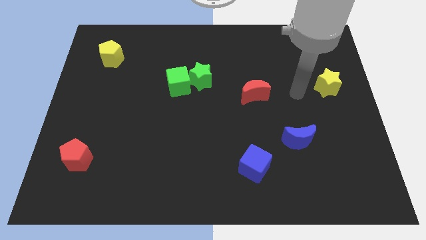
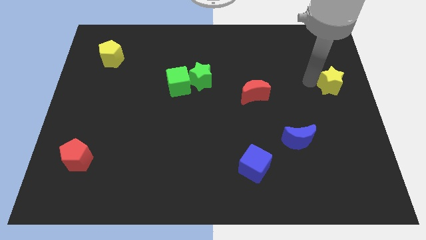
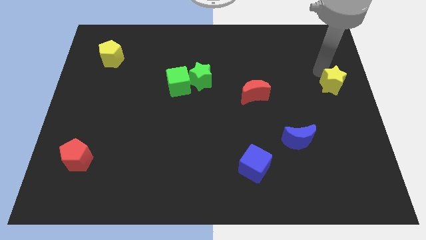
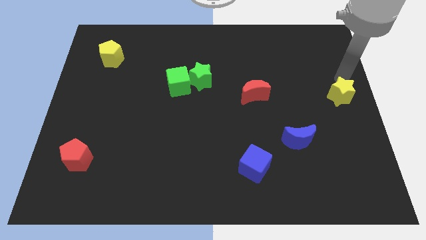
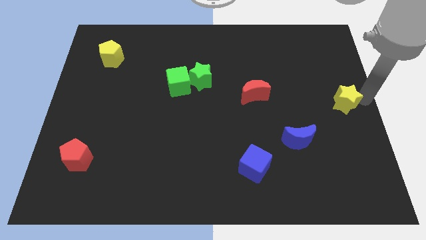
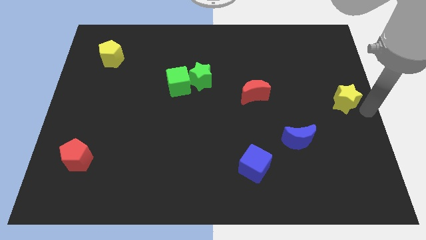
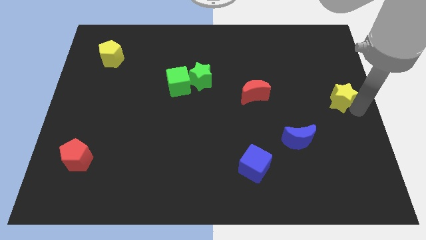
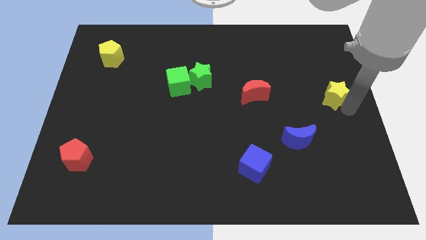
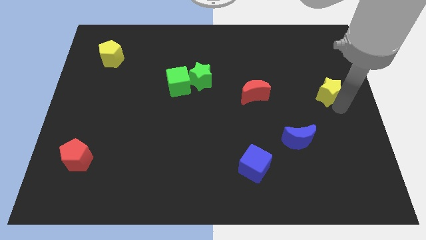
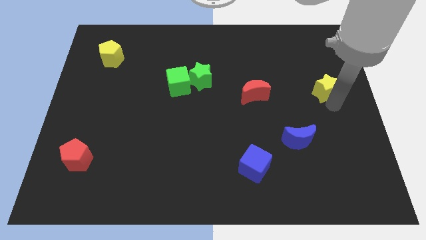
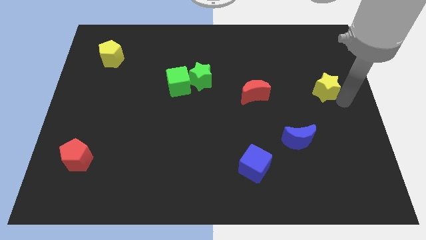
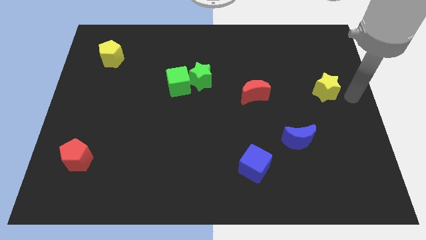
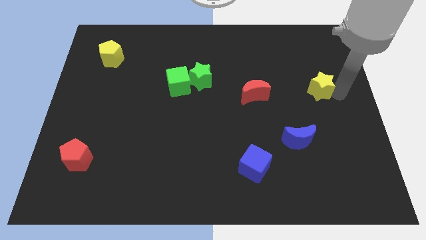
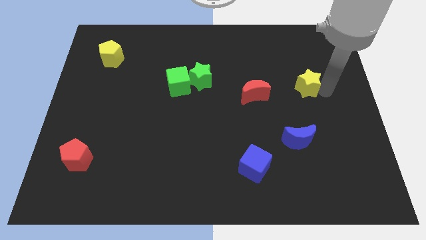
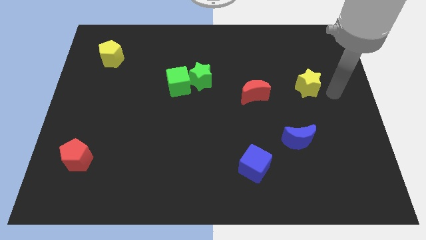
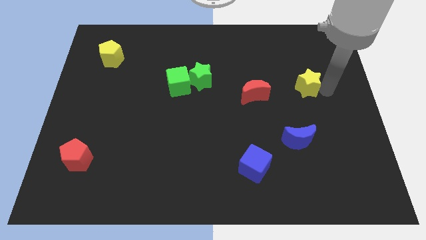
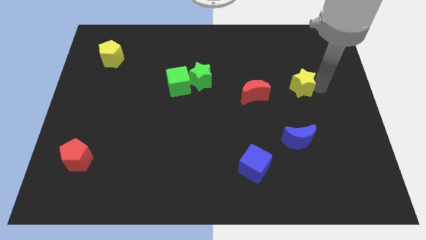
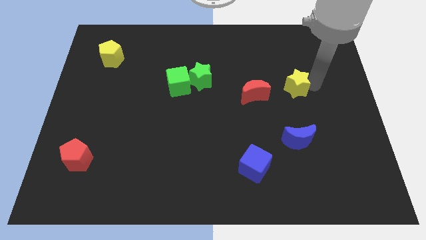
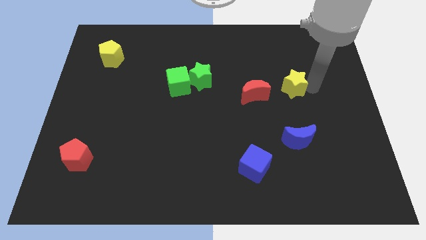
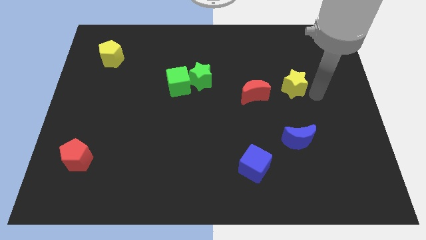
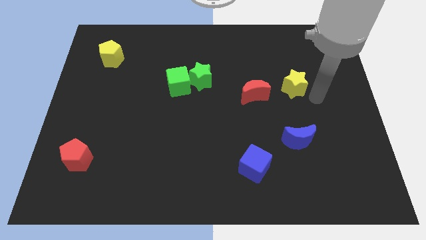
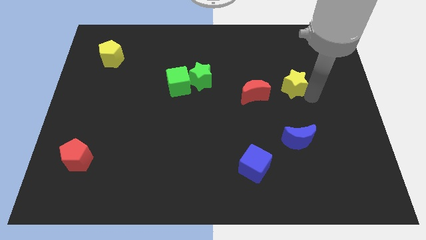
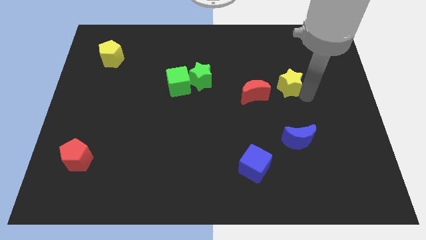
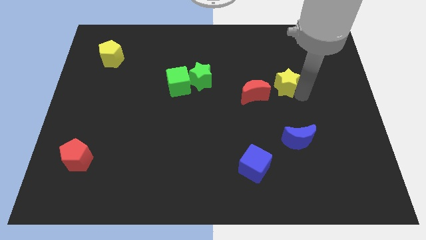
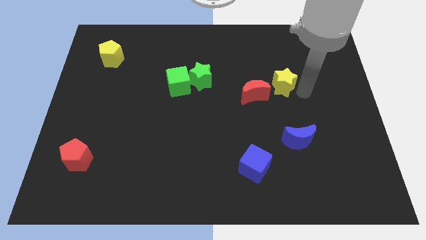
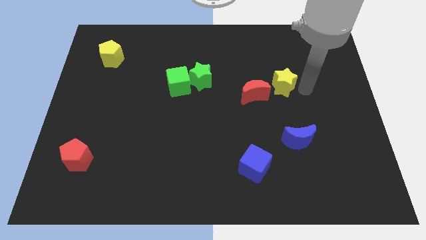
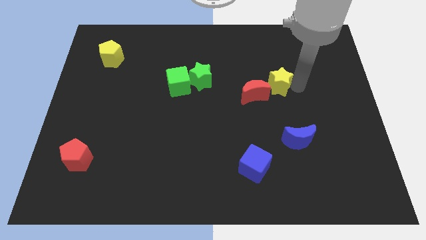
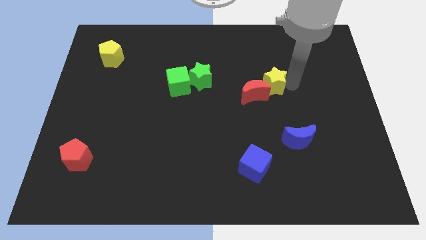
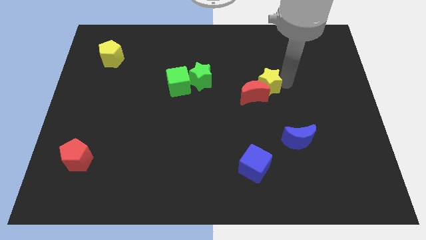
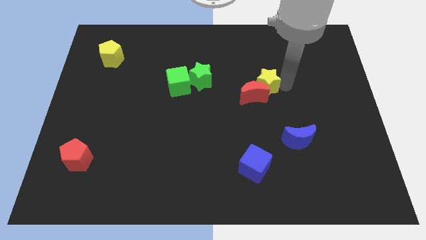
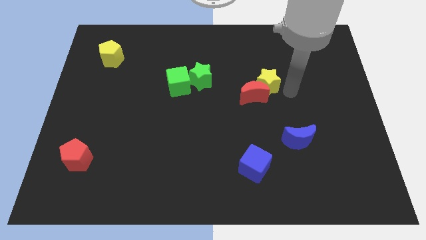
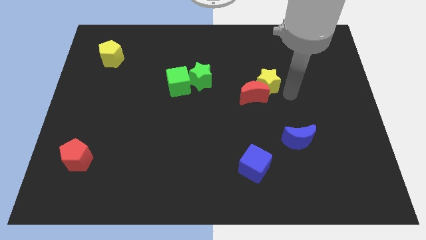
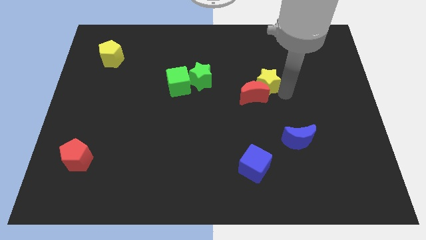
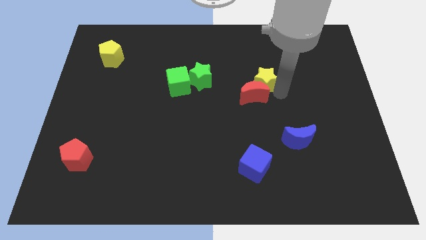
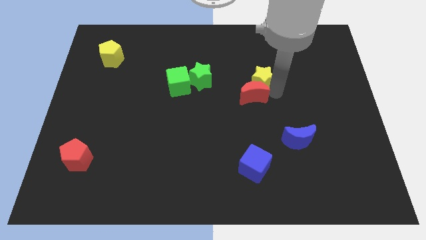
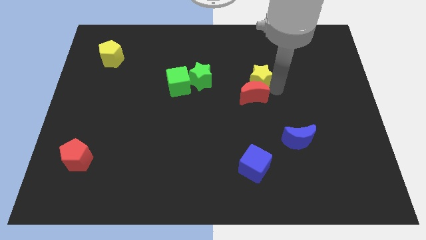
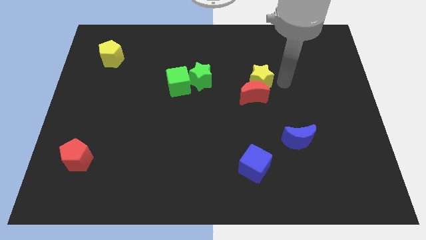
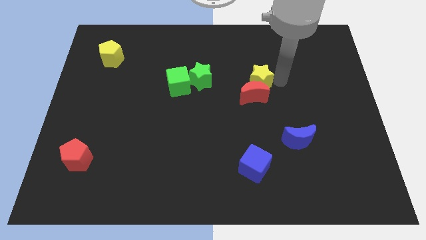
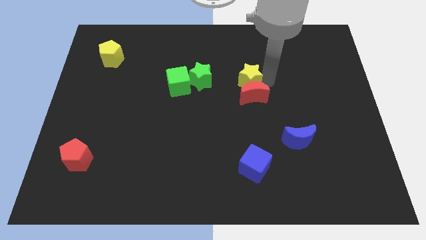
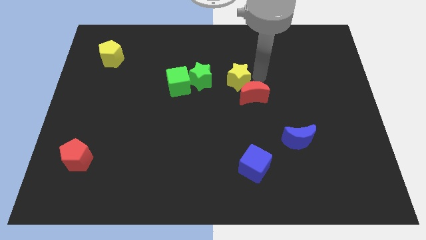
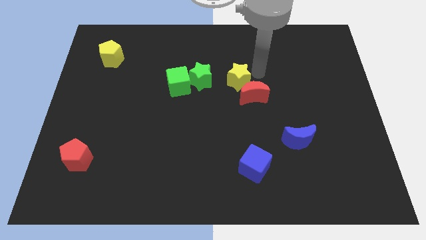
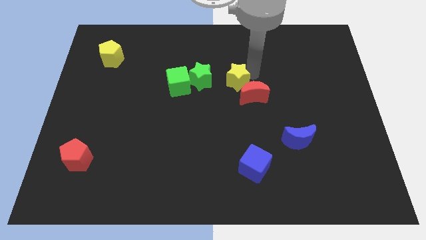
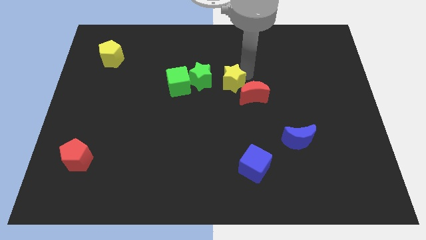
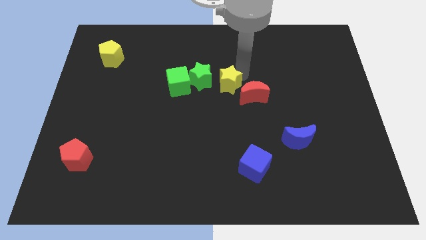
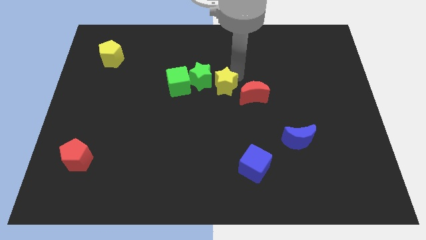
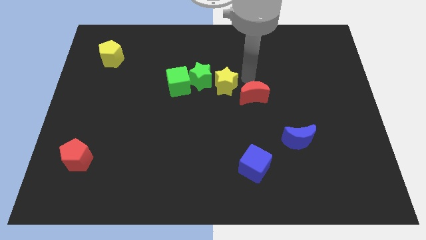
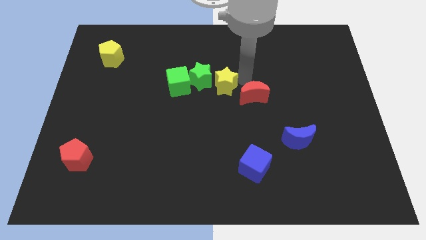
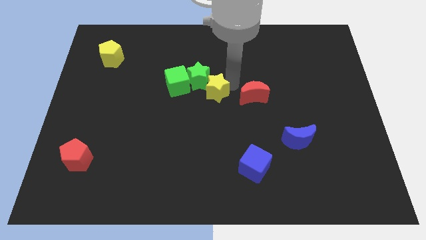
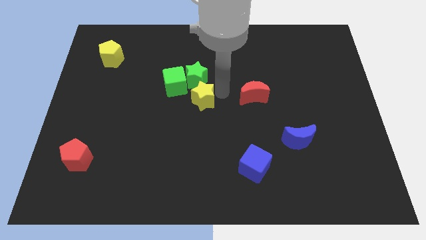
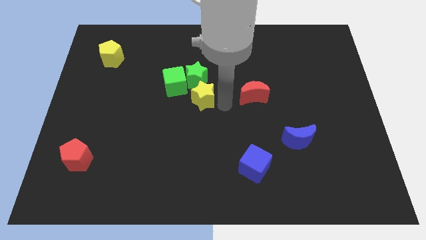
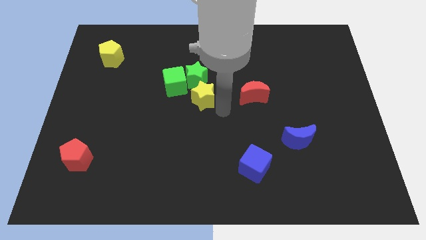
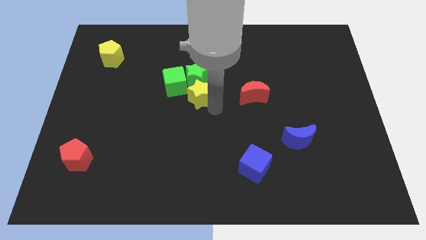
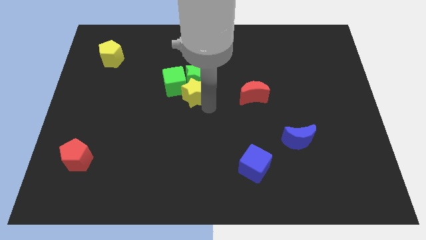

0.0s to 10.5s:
push the yellow star towards the green cube

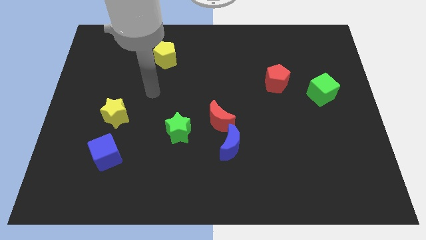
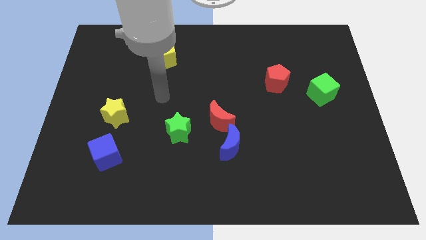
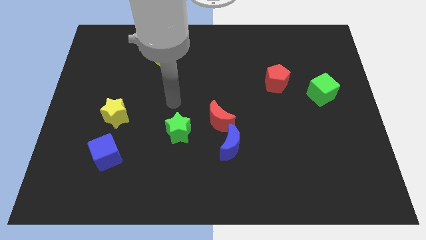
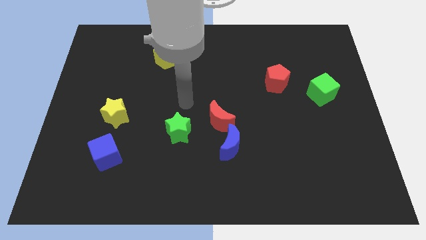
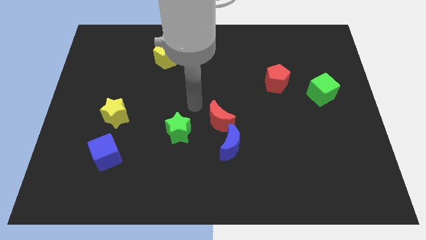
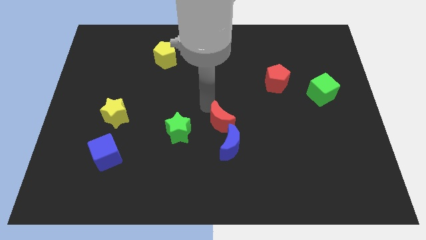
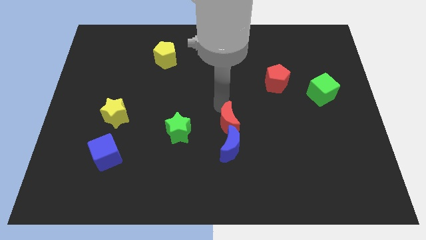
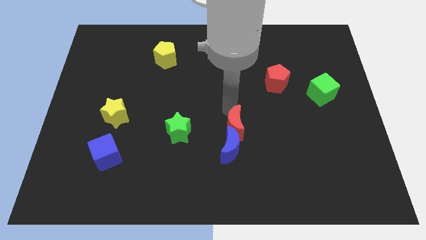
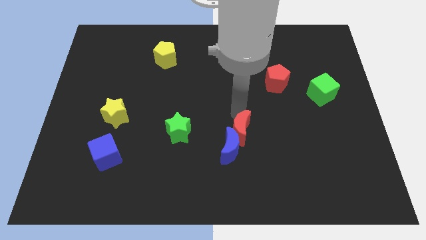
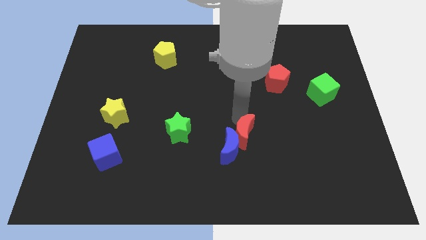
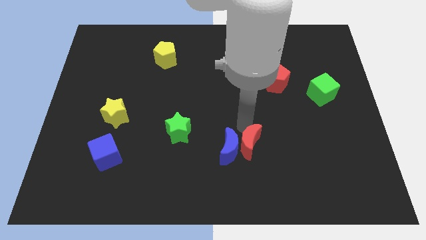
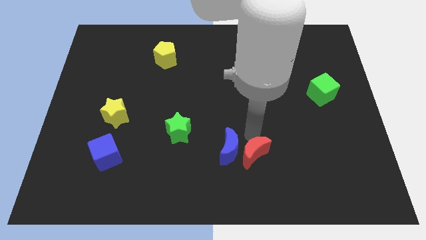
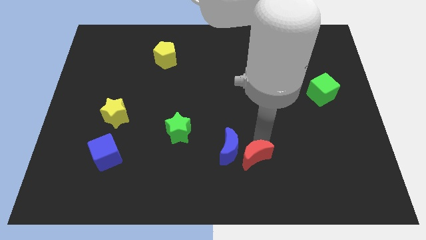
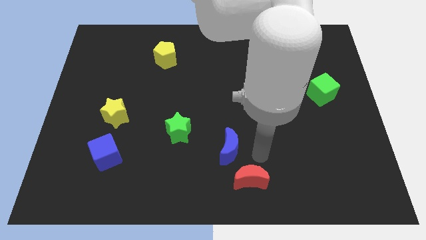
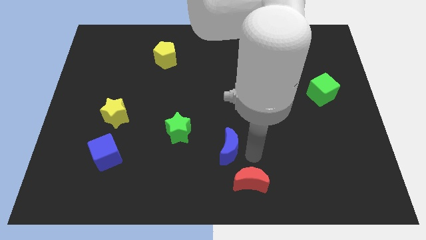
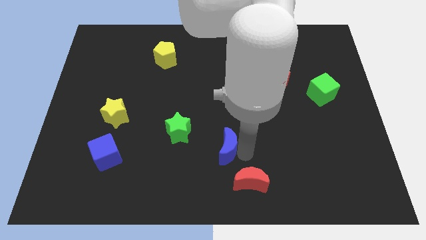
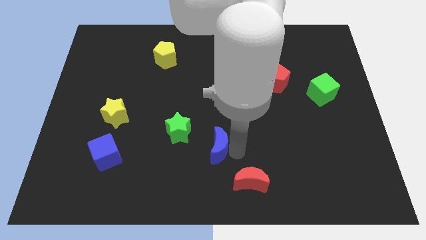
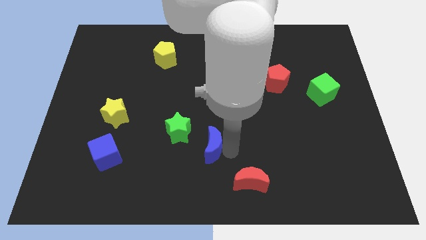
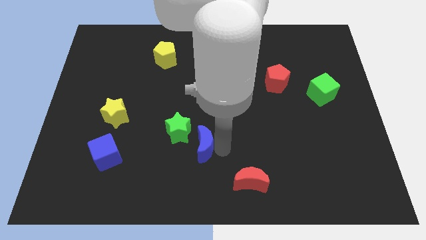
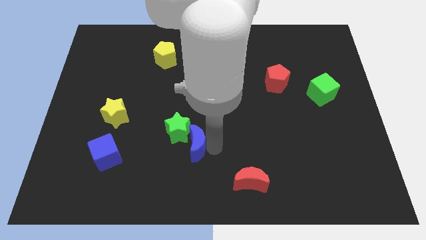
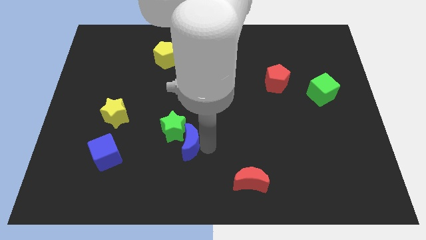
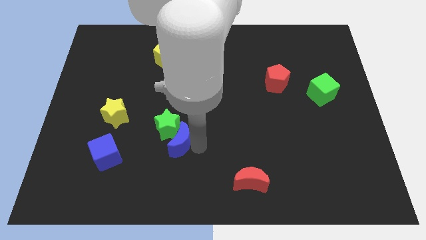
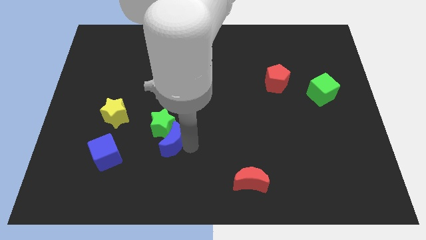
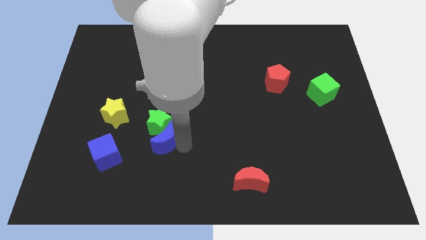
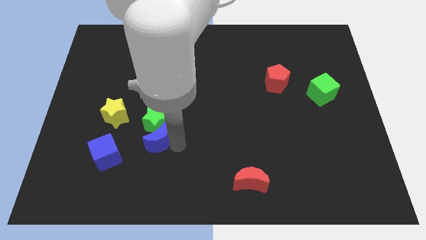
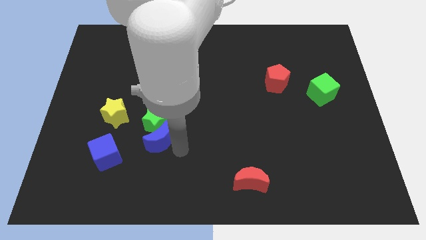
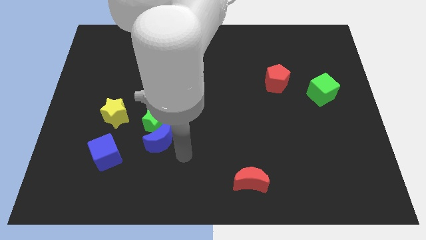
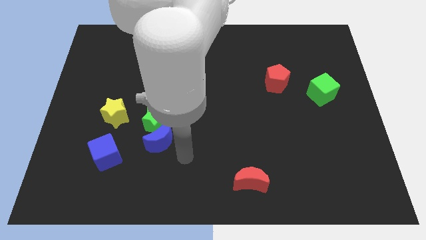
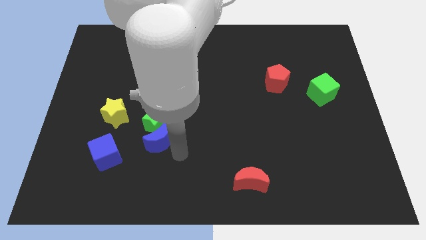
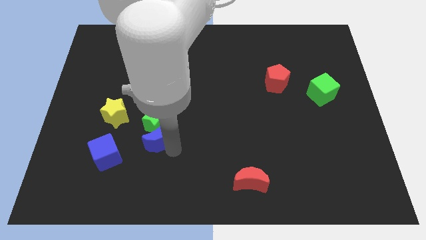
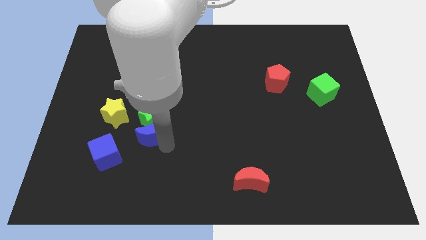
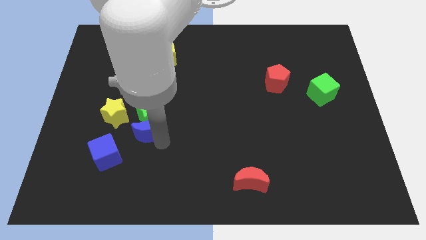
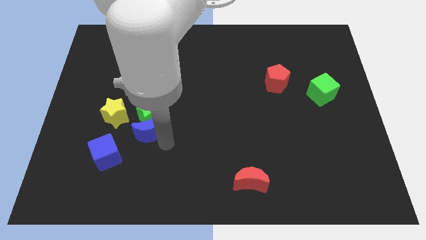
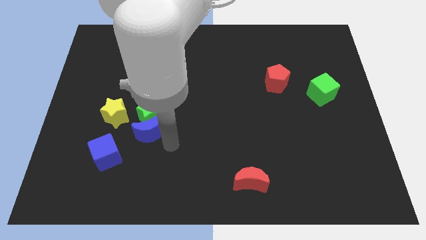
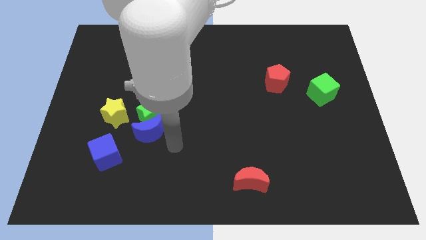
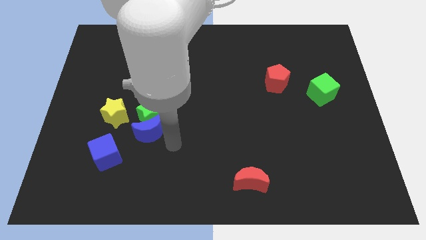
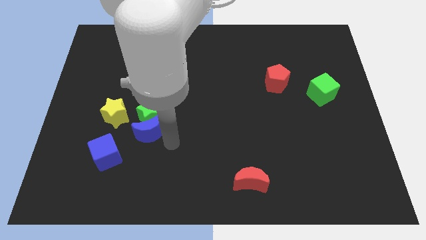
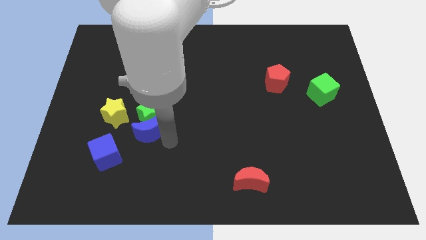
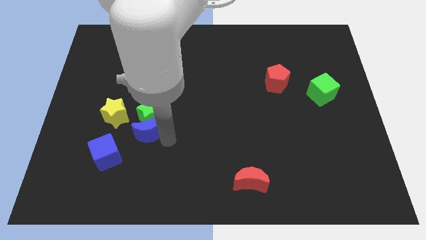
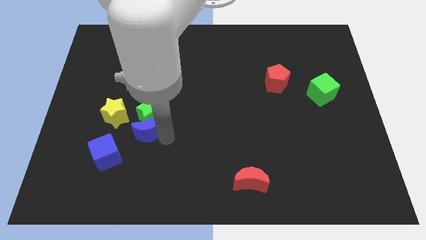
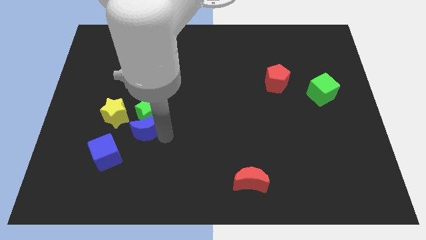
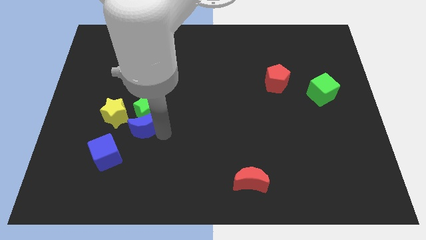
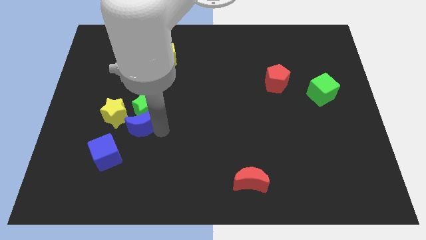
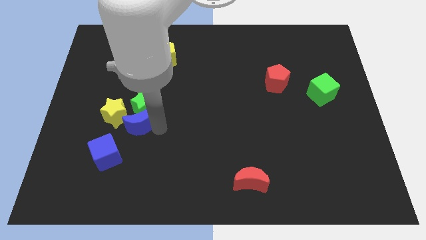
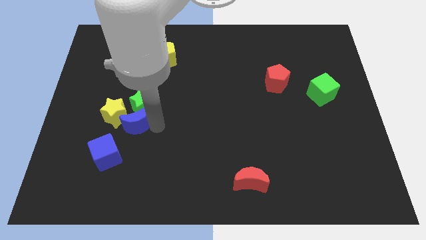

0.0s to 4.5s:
slide the blue moon to the yellow star
